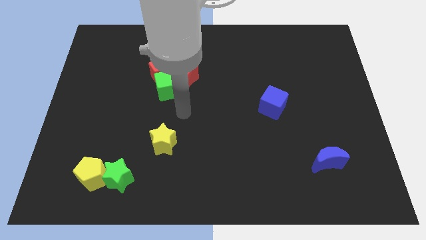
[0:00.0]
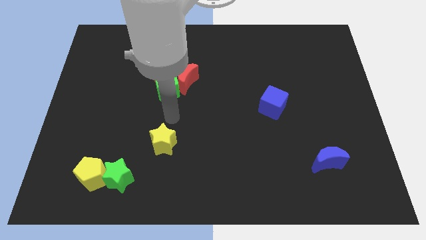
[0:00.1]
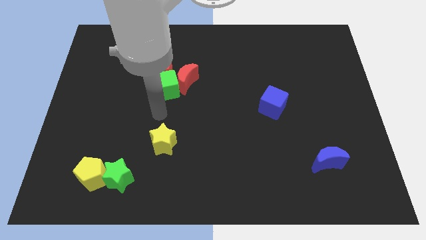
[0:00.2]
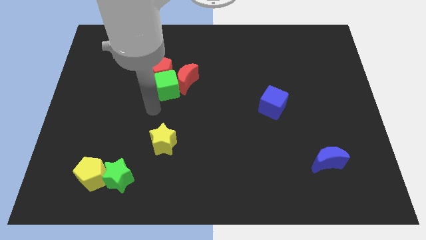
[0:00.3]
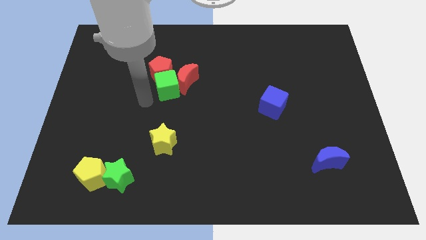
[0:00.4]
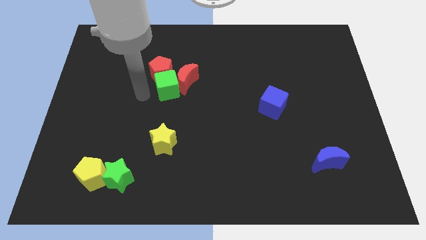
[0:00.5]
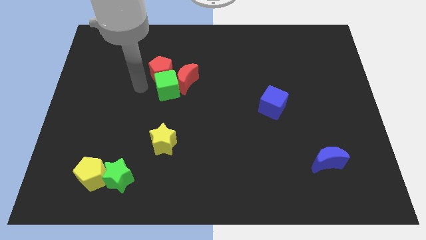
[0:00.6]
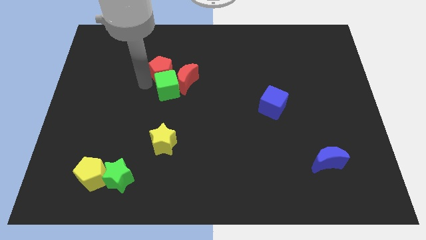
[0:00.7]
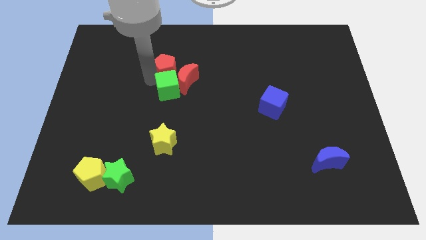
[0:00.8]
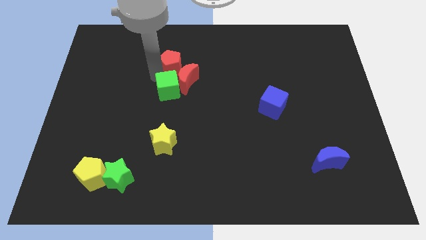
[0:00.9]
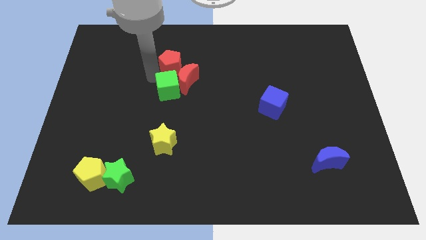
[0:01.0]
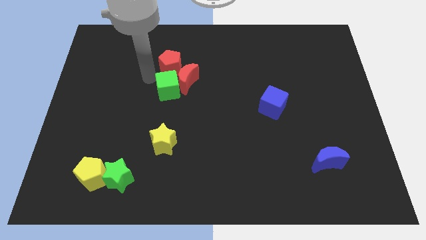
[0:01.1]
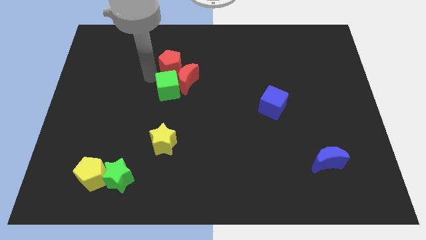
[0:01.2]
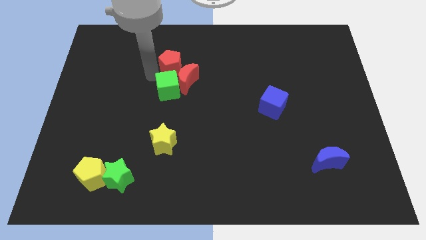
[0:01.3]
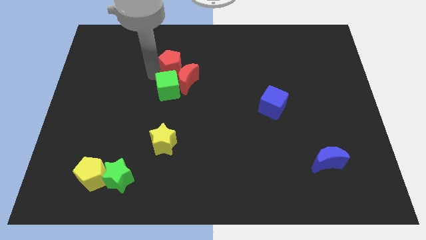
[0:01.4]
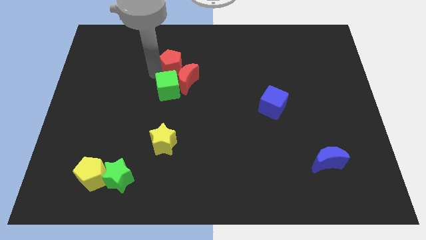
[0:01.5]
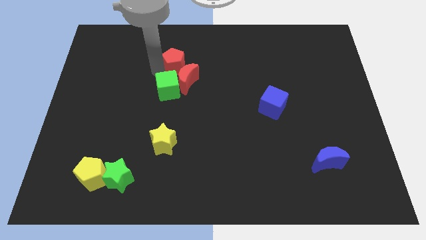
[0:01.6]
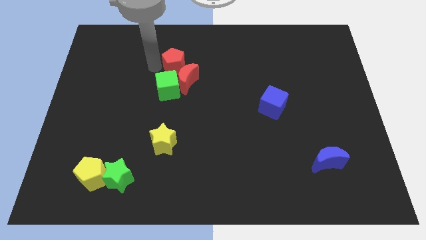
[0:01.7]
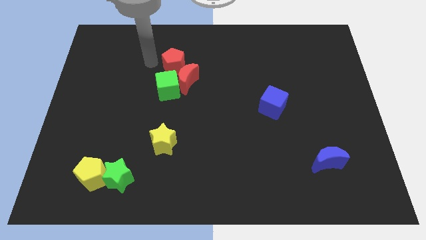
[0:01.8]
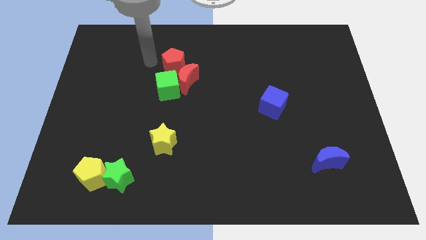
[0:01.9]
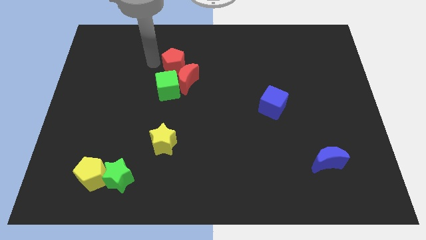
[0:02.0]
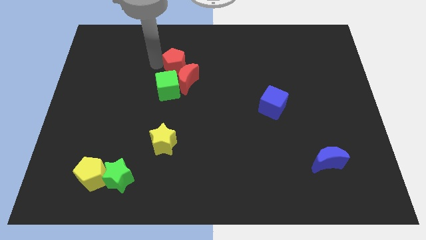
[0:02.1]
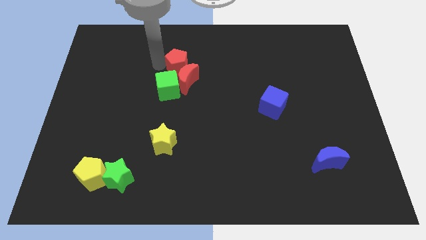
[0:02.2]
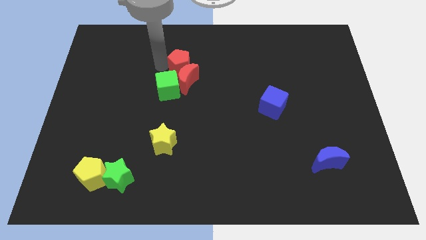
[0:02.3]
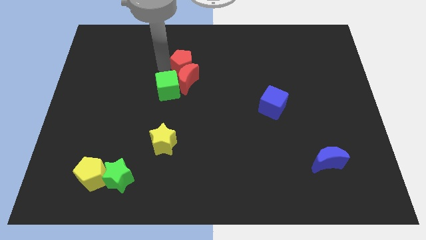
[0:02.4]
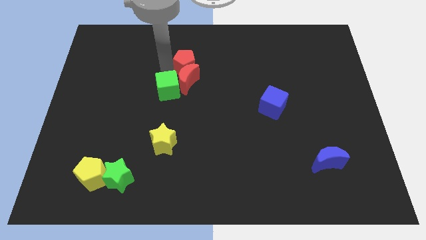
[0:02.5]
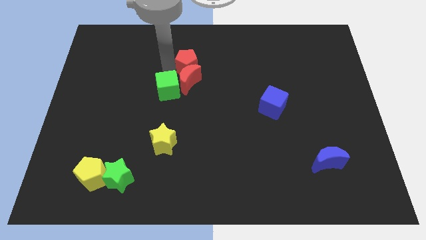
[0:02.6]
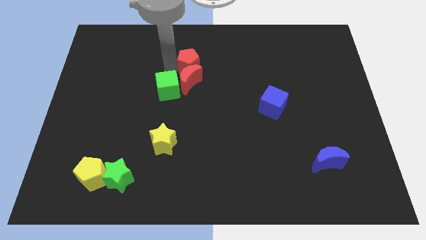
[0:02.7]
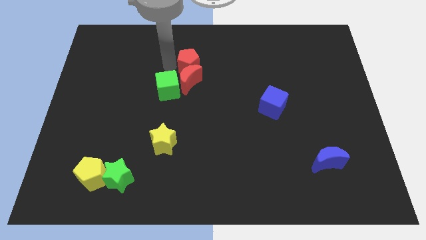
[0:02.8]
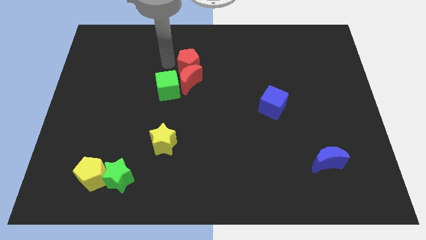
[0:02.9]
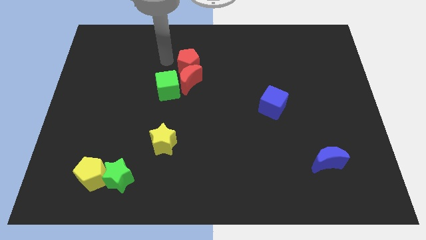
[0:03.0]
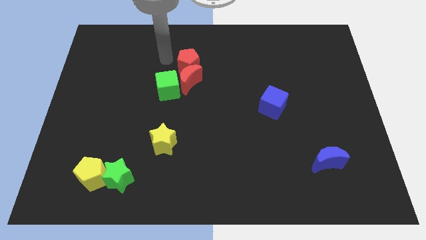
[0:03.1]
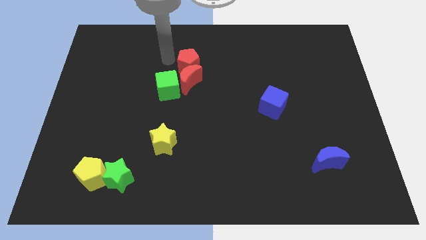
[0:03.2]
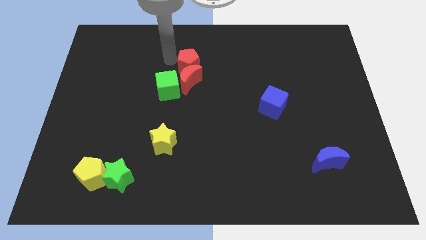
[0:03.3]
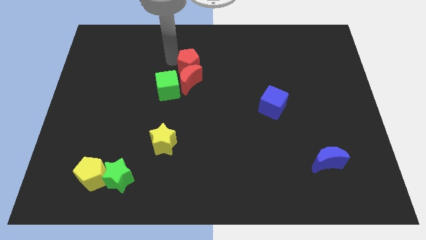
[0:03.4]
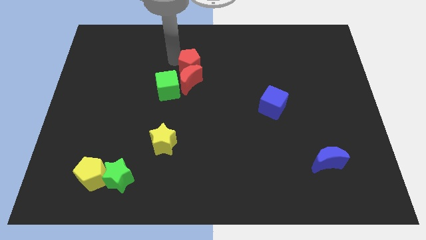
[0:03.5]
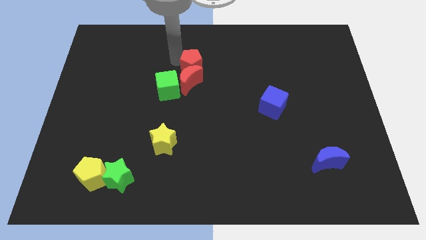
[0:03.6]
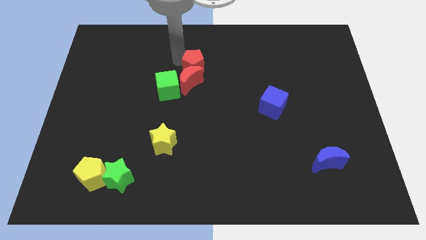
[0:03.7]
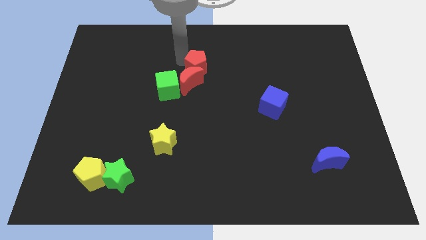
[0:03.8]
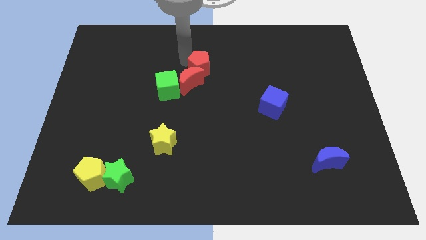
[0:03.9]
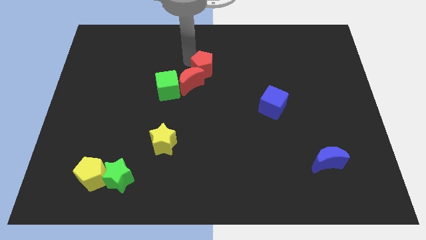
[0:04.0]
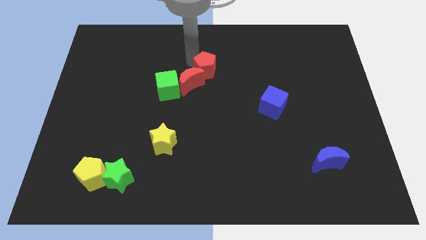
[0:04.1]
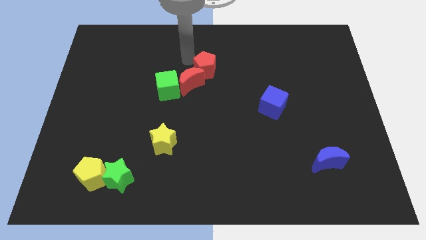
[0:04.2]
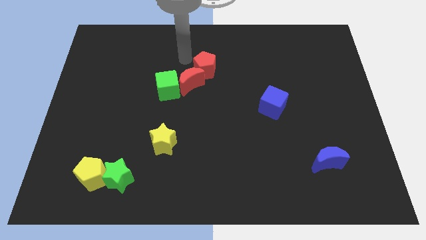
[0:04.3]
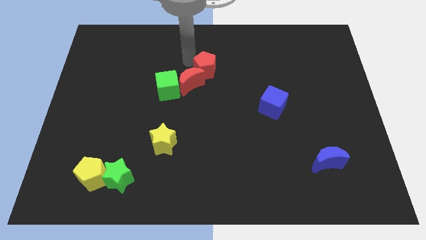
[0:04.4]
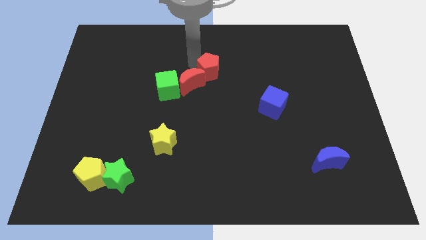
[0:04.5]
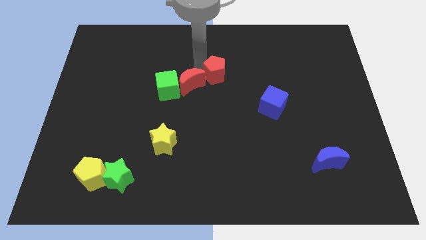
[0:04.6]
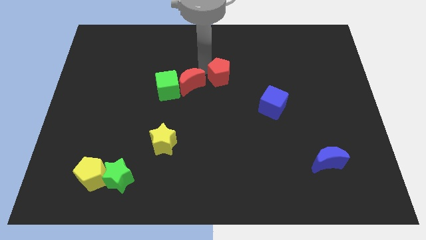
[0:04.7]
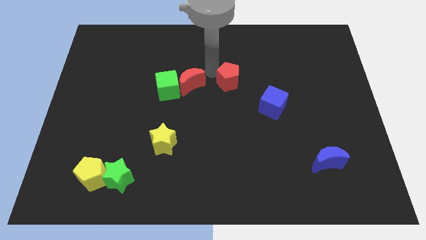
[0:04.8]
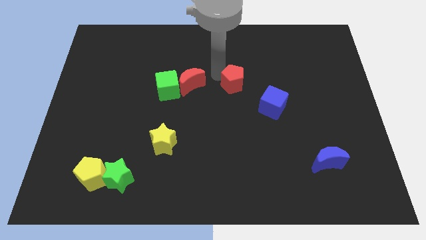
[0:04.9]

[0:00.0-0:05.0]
slide the red pentagon diagonally up and to the left of the blue cube

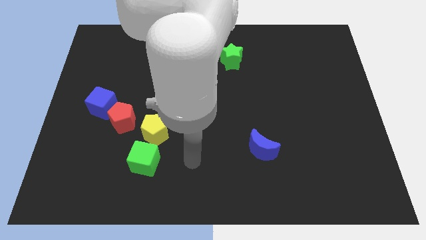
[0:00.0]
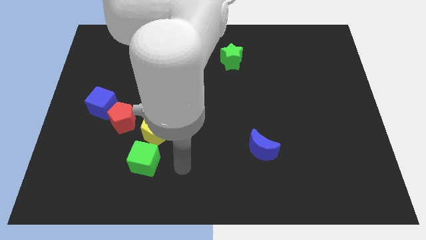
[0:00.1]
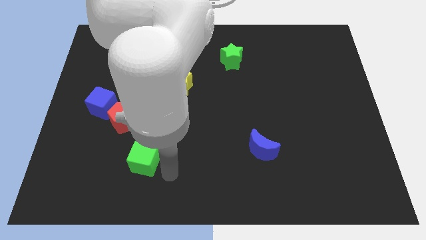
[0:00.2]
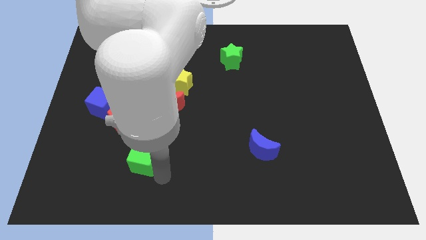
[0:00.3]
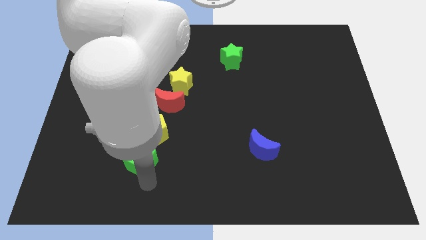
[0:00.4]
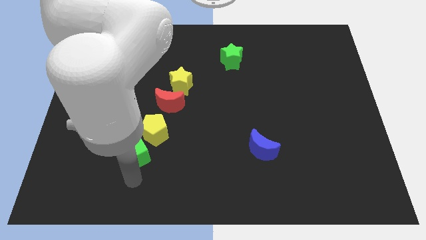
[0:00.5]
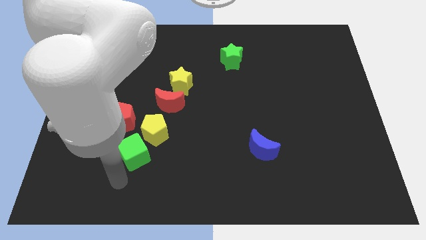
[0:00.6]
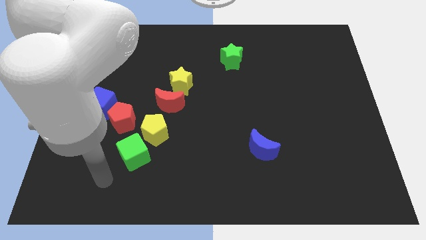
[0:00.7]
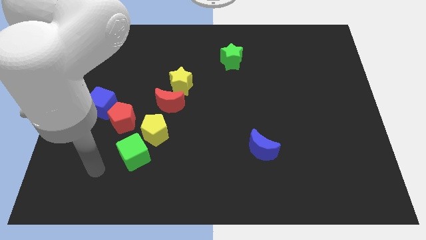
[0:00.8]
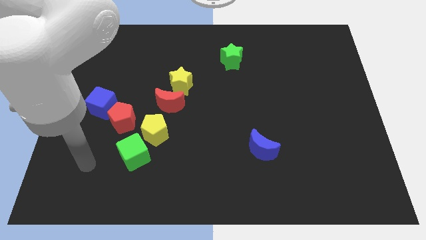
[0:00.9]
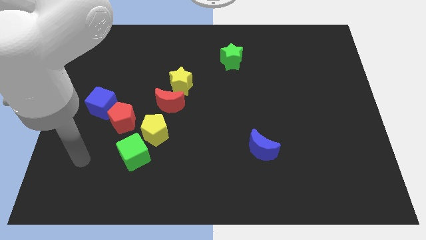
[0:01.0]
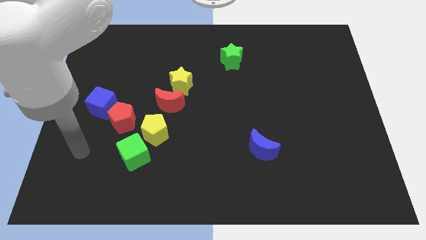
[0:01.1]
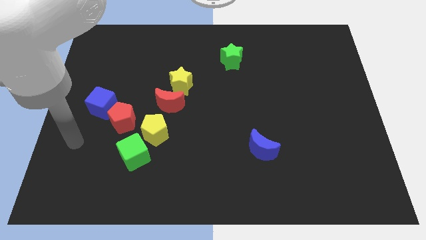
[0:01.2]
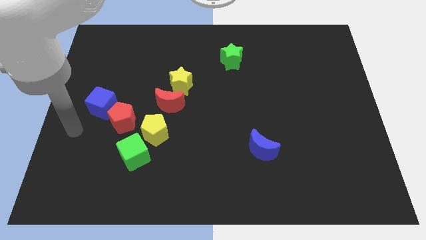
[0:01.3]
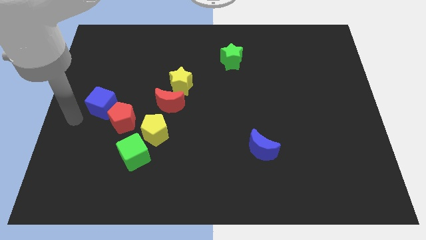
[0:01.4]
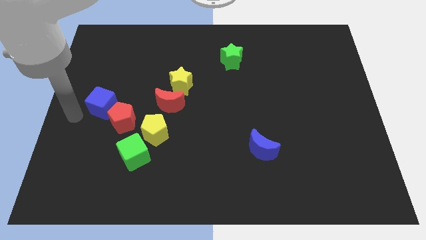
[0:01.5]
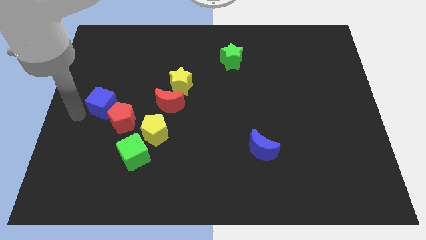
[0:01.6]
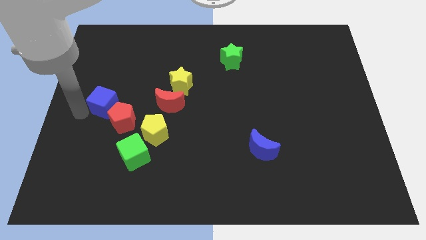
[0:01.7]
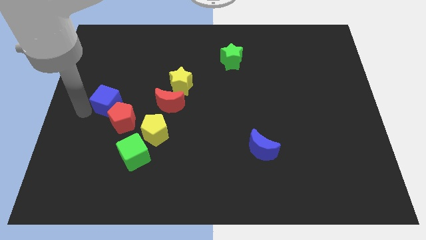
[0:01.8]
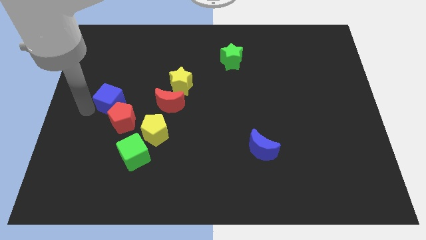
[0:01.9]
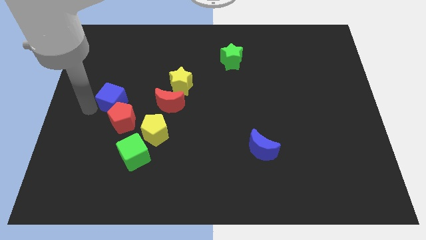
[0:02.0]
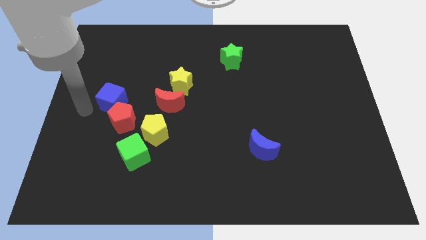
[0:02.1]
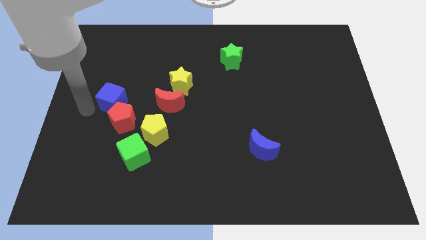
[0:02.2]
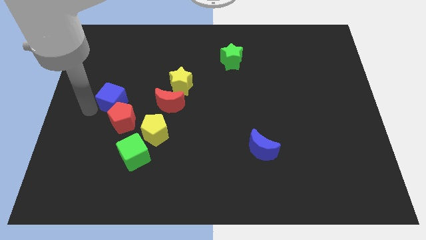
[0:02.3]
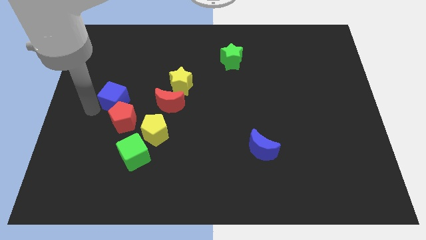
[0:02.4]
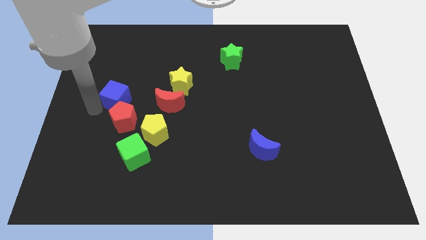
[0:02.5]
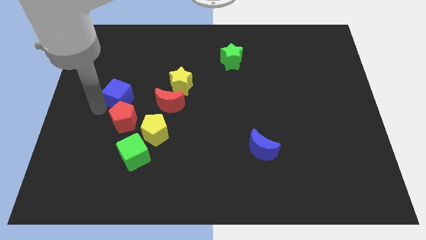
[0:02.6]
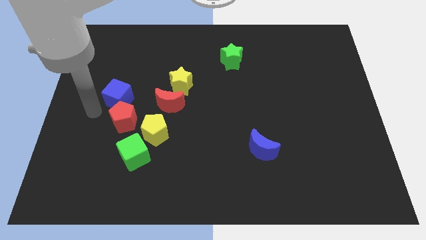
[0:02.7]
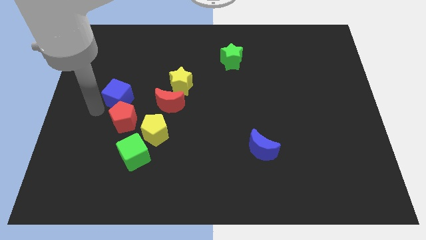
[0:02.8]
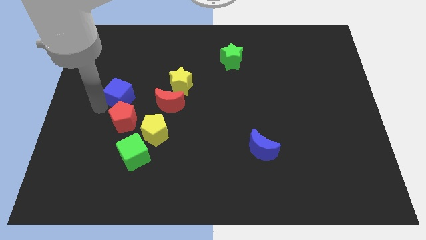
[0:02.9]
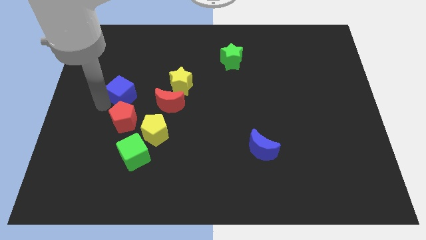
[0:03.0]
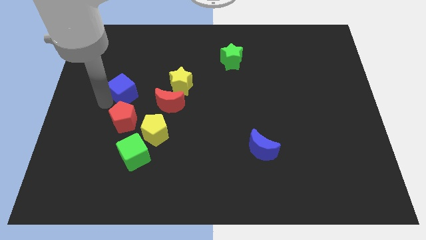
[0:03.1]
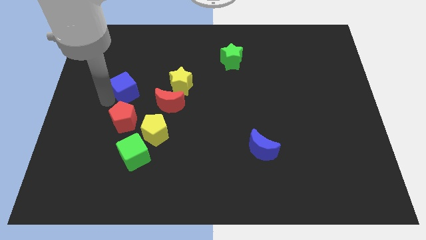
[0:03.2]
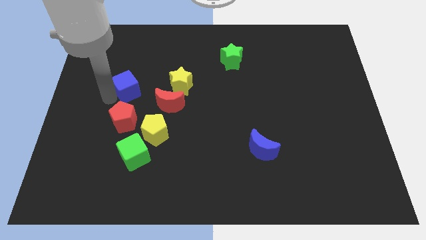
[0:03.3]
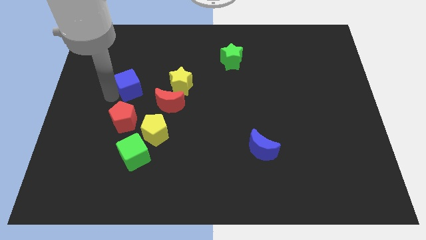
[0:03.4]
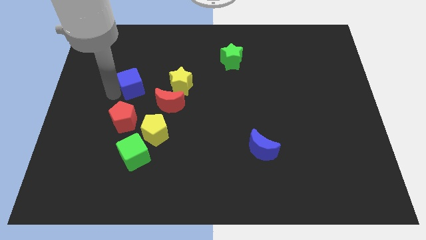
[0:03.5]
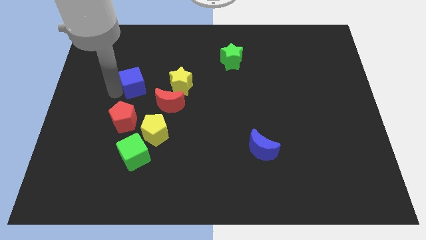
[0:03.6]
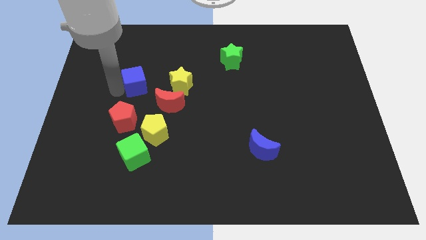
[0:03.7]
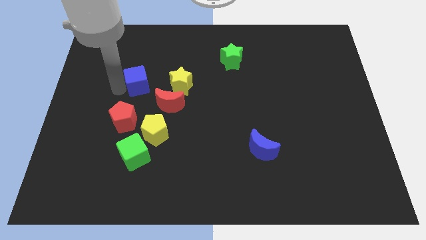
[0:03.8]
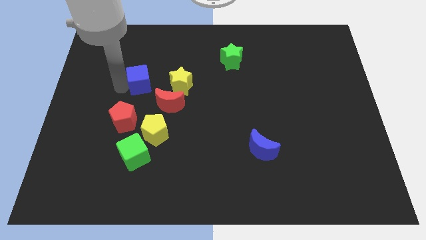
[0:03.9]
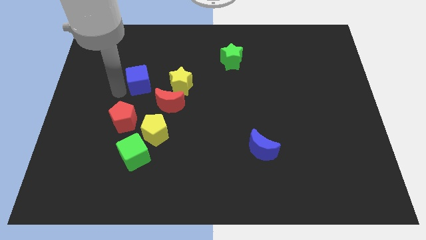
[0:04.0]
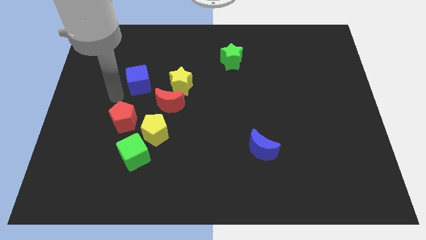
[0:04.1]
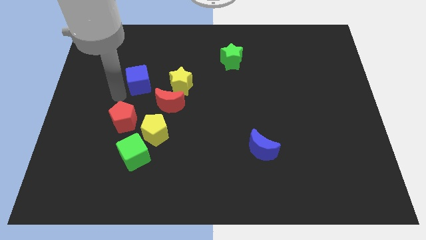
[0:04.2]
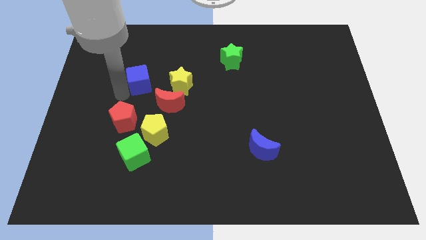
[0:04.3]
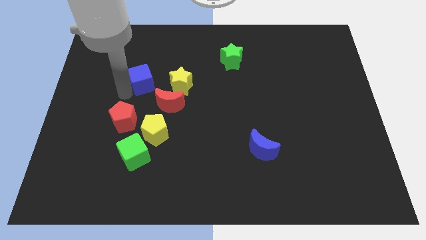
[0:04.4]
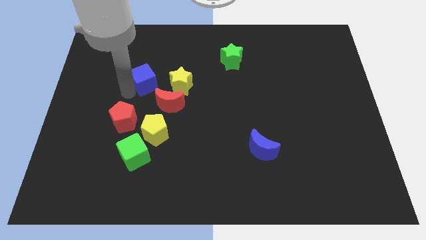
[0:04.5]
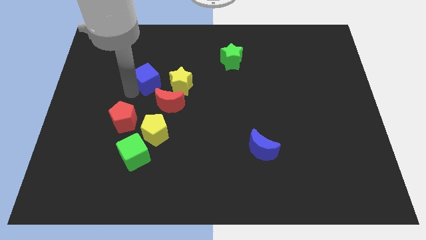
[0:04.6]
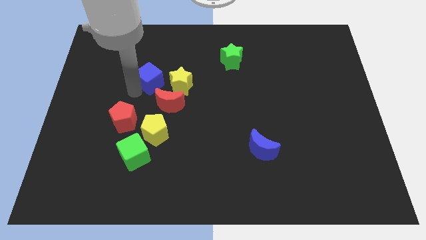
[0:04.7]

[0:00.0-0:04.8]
move the blue cube diagonally up and to the left of the yellow star
